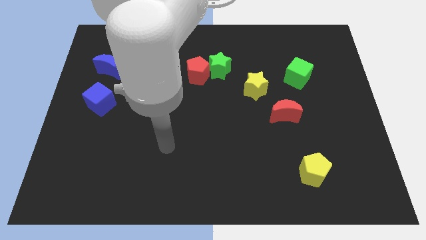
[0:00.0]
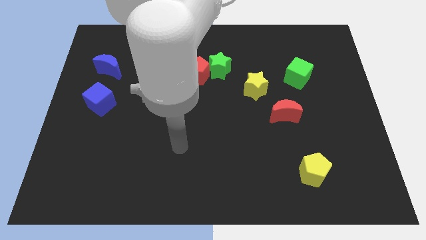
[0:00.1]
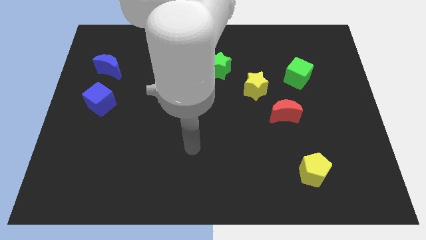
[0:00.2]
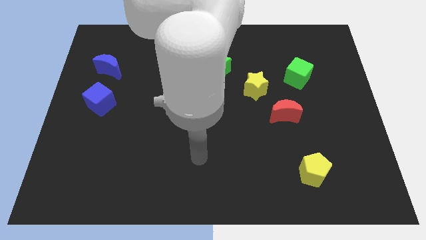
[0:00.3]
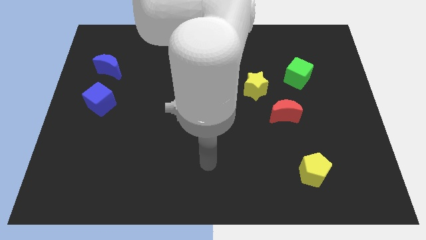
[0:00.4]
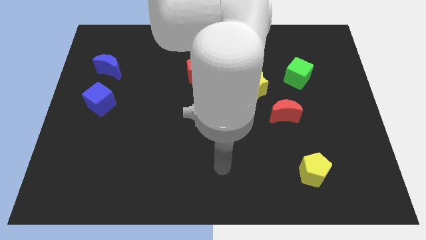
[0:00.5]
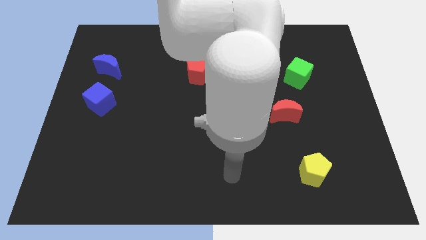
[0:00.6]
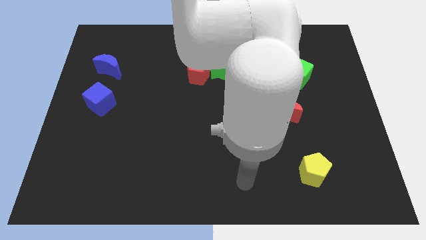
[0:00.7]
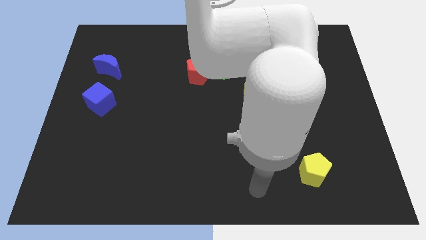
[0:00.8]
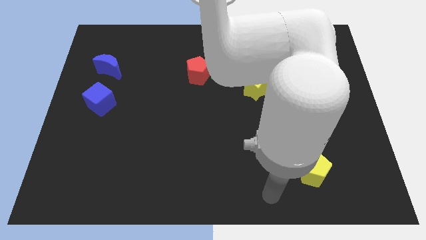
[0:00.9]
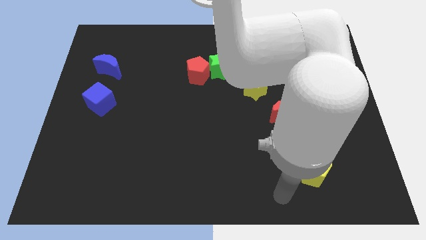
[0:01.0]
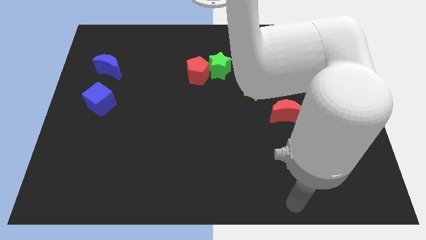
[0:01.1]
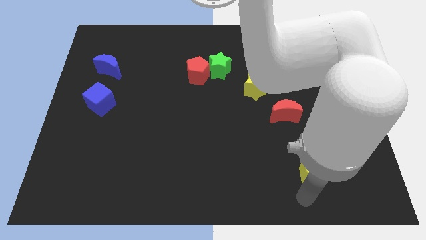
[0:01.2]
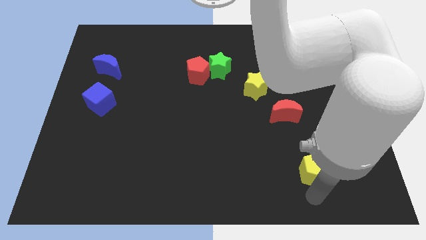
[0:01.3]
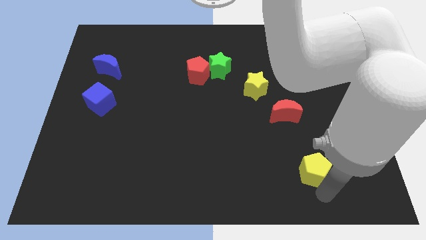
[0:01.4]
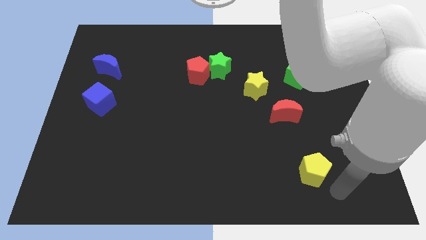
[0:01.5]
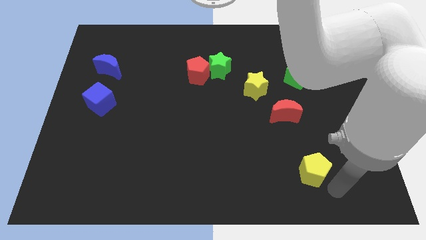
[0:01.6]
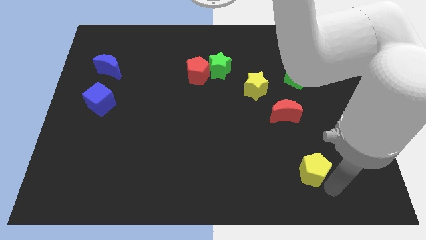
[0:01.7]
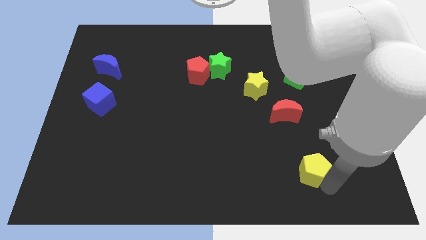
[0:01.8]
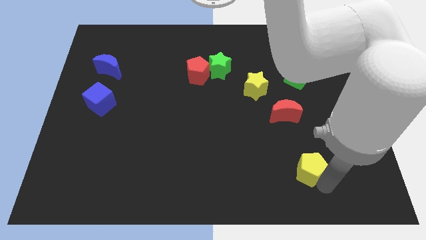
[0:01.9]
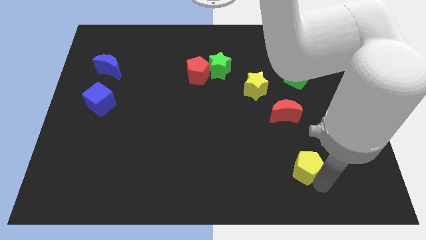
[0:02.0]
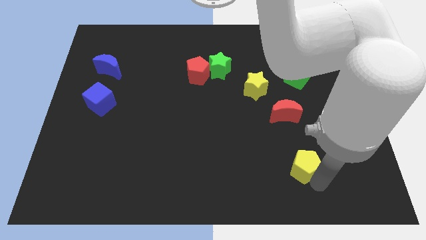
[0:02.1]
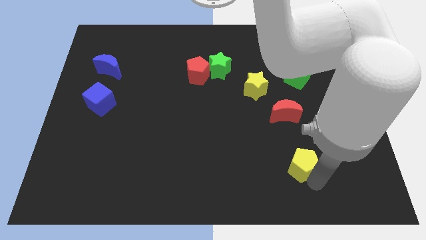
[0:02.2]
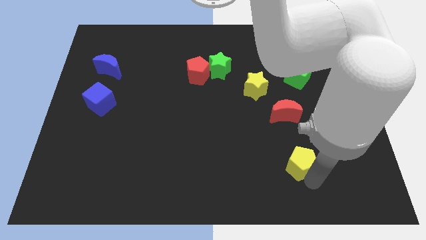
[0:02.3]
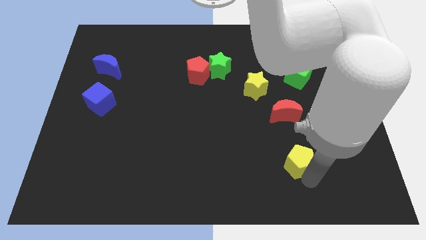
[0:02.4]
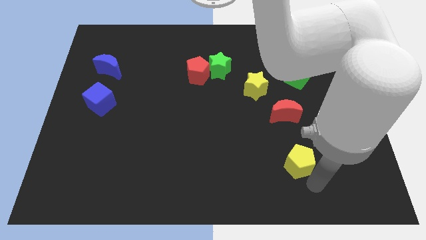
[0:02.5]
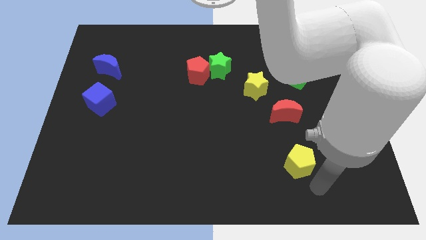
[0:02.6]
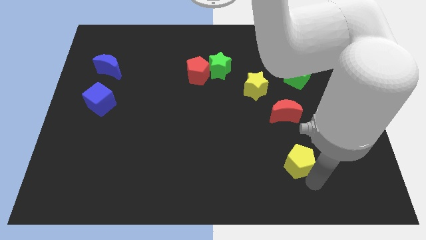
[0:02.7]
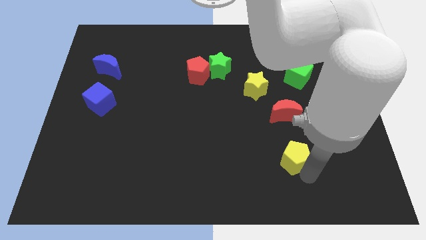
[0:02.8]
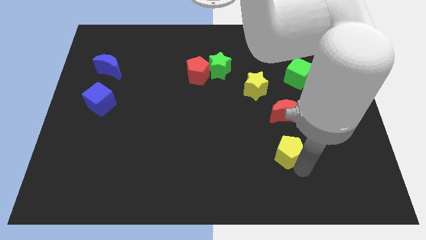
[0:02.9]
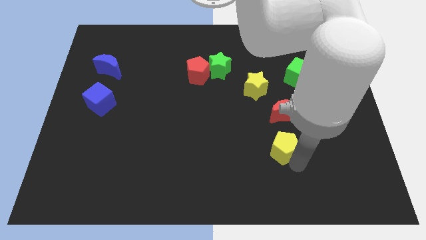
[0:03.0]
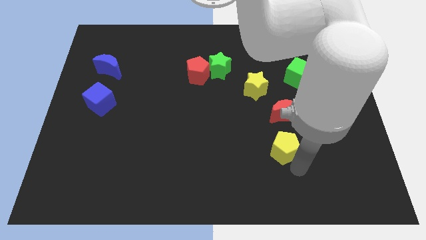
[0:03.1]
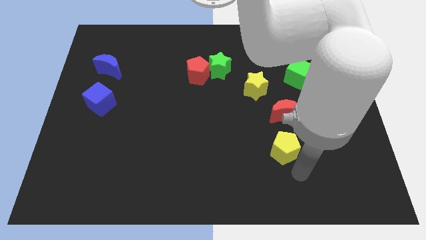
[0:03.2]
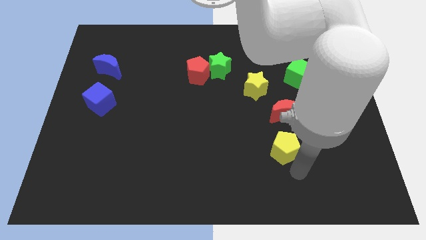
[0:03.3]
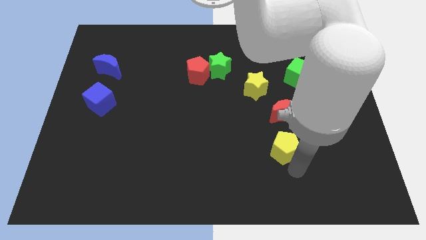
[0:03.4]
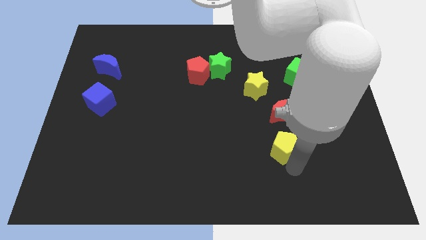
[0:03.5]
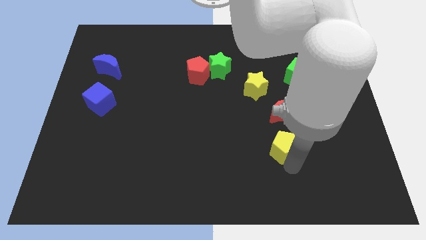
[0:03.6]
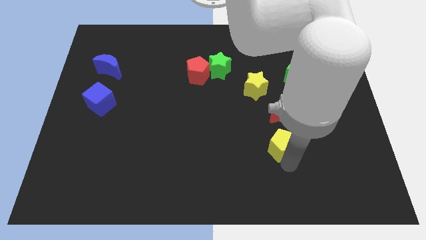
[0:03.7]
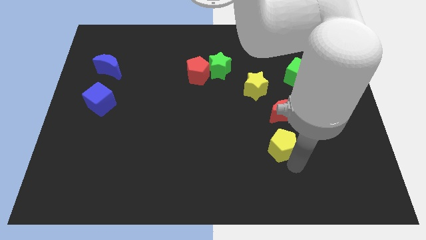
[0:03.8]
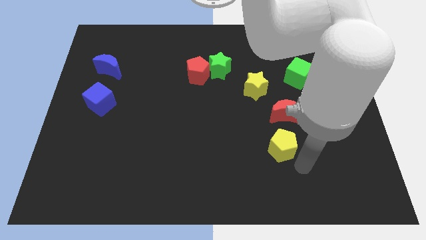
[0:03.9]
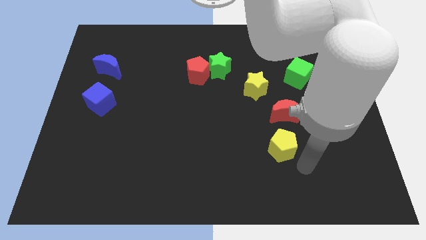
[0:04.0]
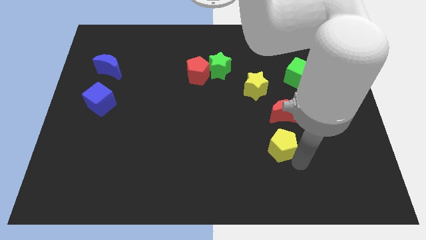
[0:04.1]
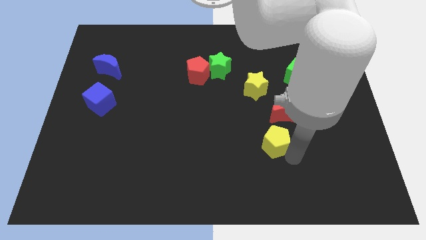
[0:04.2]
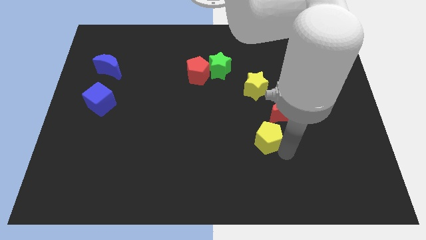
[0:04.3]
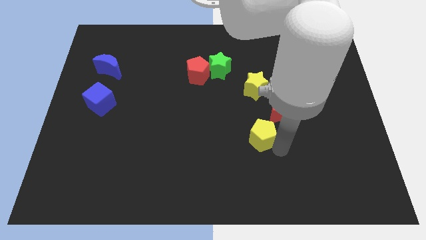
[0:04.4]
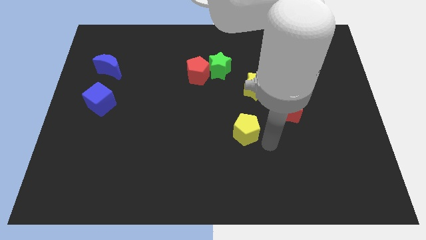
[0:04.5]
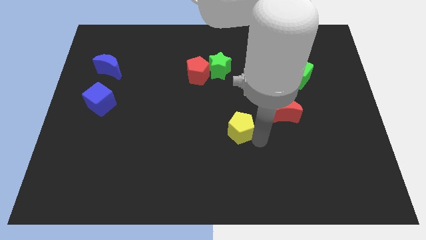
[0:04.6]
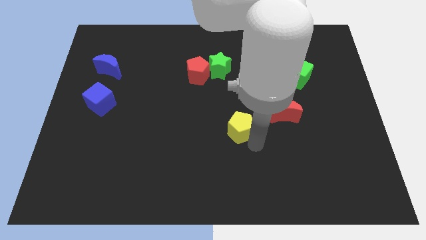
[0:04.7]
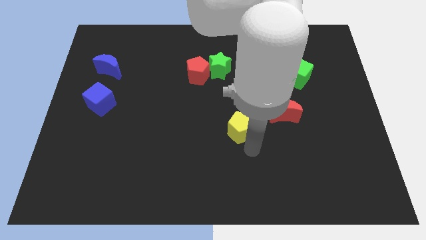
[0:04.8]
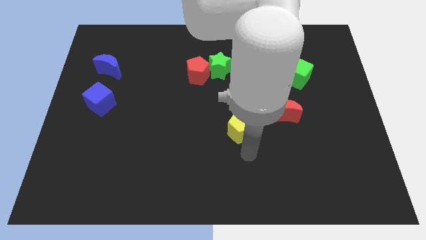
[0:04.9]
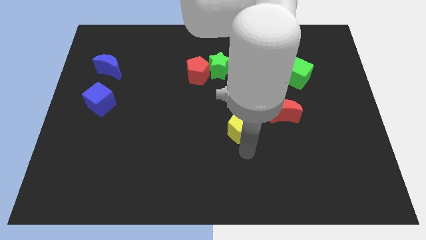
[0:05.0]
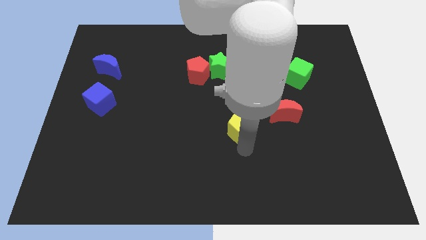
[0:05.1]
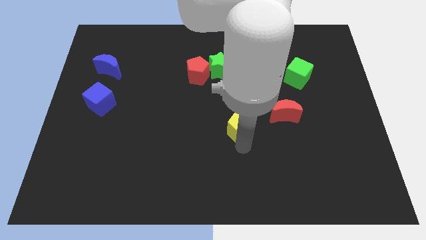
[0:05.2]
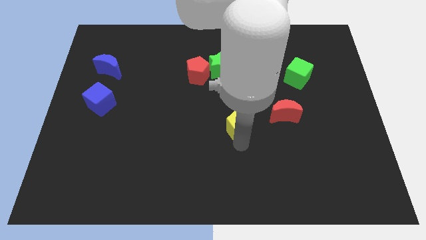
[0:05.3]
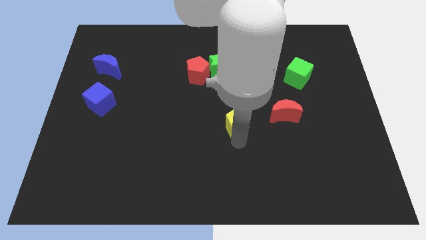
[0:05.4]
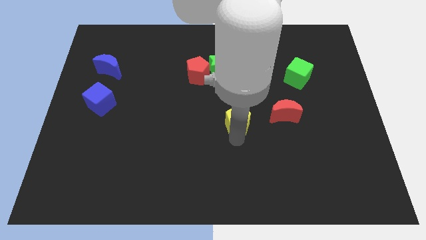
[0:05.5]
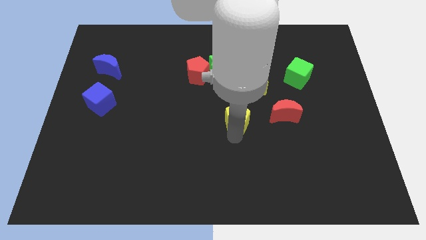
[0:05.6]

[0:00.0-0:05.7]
push the yellow pentagon upwards and to the left

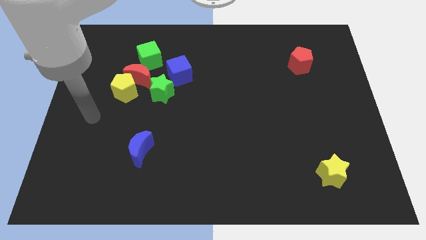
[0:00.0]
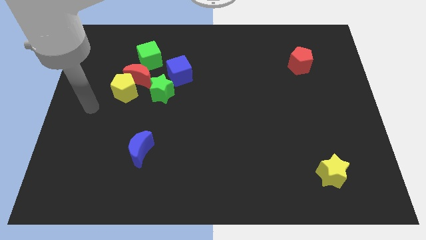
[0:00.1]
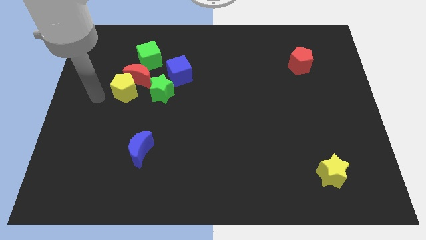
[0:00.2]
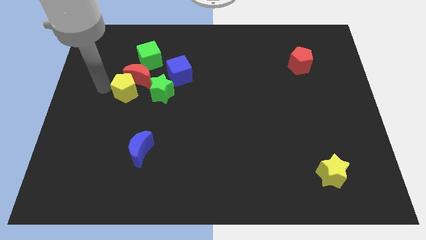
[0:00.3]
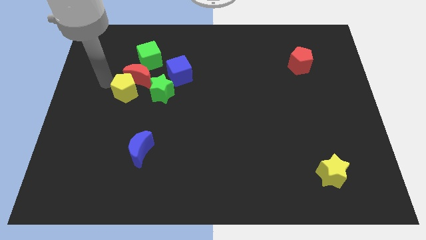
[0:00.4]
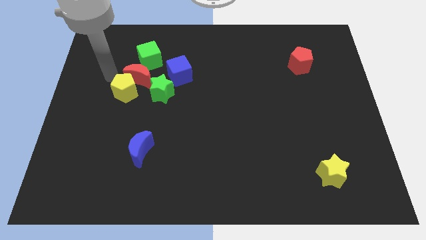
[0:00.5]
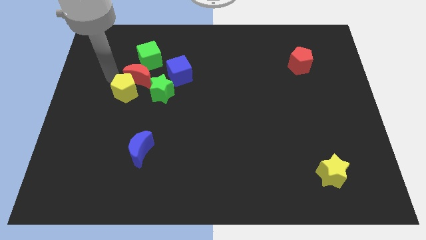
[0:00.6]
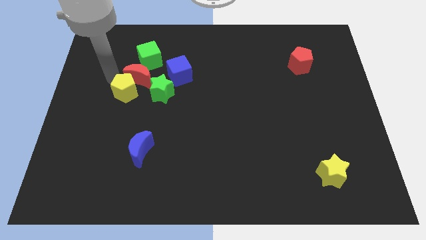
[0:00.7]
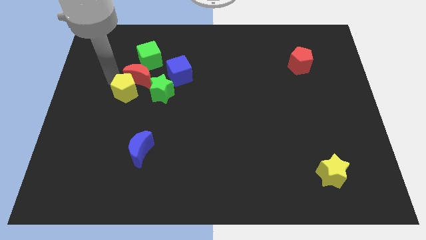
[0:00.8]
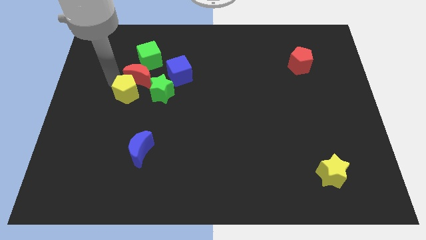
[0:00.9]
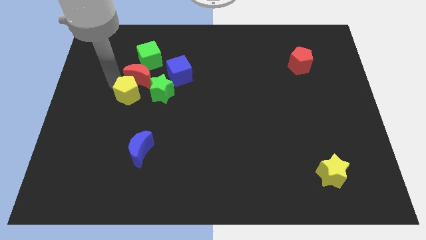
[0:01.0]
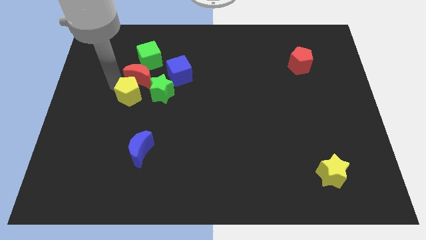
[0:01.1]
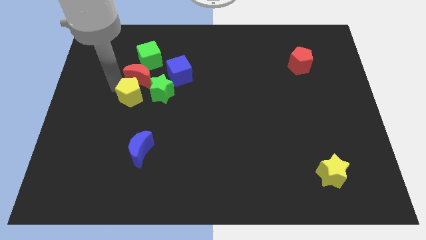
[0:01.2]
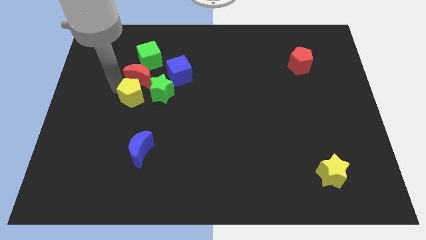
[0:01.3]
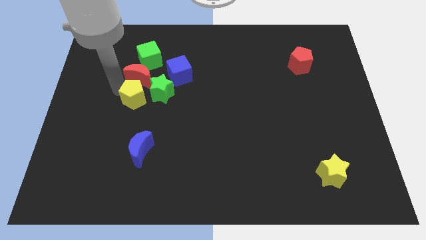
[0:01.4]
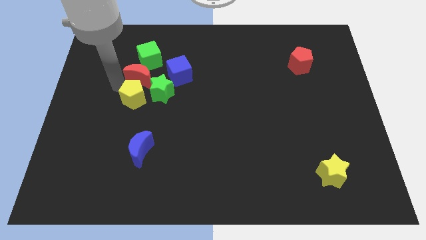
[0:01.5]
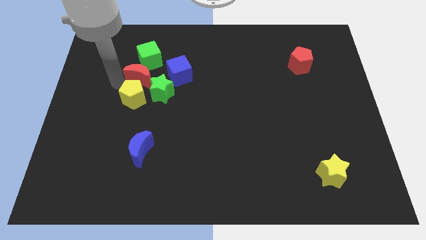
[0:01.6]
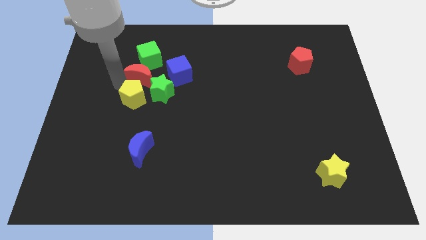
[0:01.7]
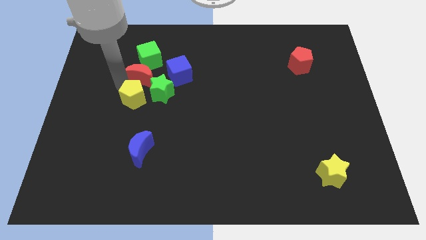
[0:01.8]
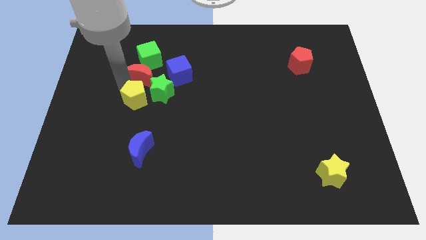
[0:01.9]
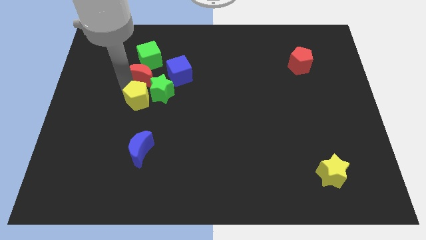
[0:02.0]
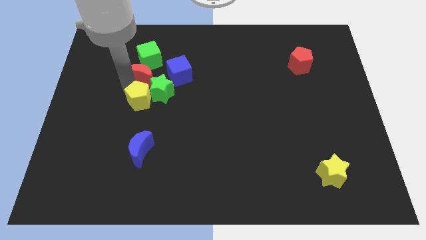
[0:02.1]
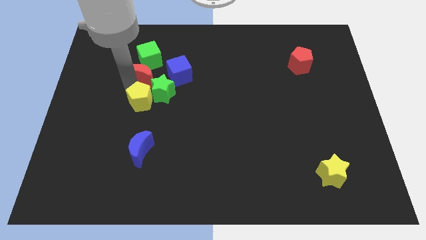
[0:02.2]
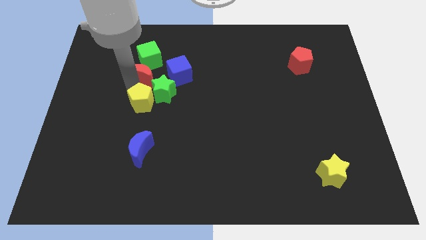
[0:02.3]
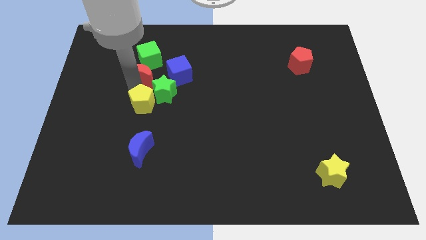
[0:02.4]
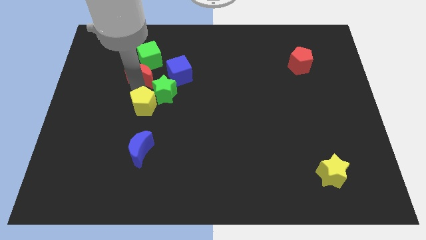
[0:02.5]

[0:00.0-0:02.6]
slightly move the yellow pentagon downwards and then to the right
